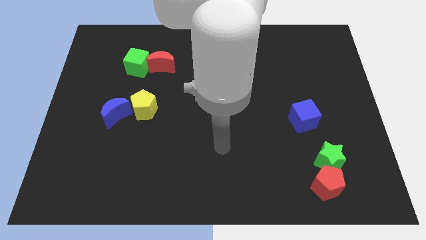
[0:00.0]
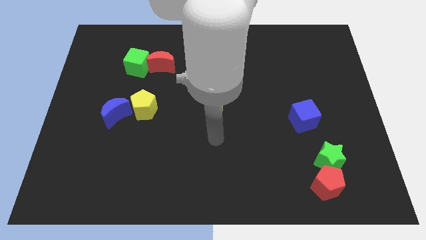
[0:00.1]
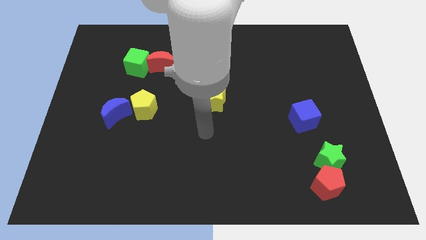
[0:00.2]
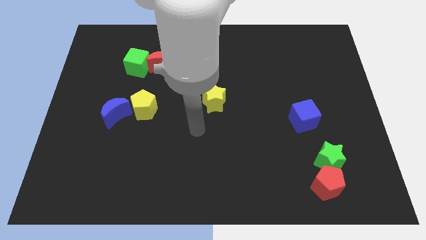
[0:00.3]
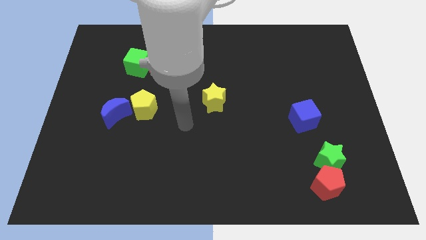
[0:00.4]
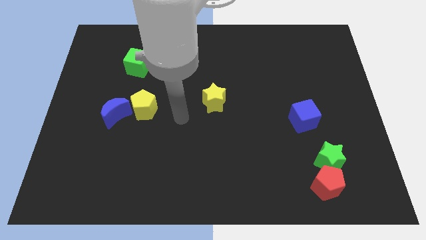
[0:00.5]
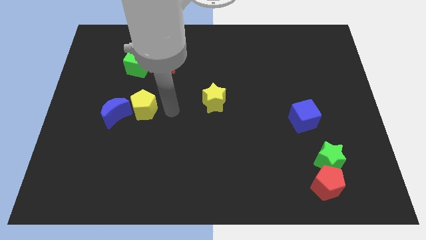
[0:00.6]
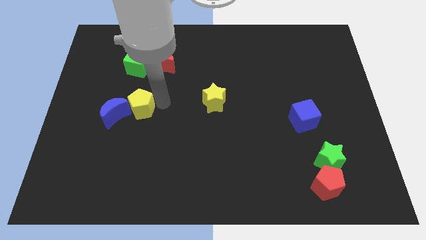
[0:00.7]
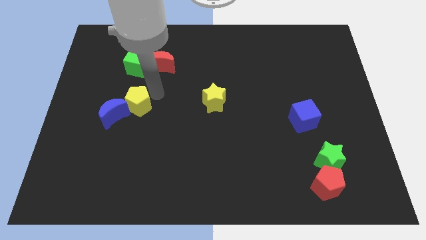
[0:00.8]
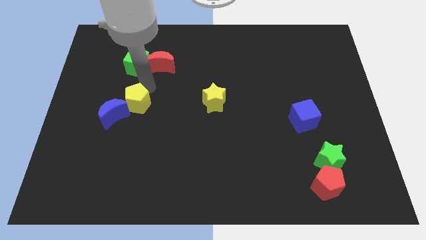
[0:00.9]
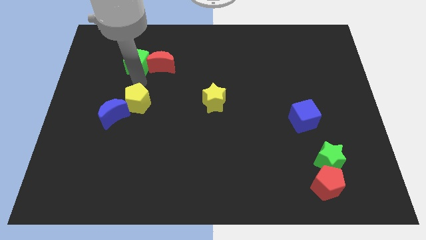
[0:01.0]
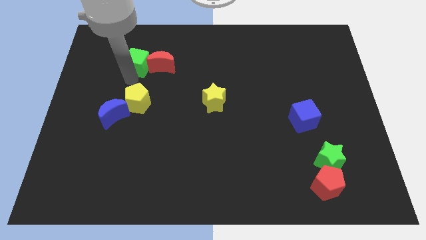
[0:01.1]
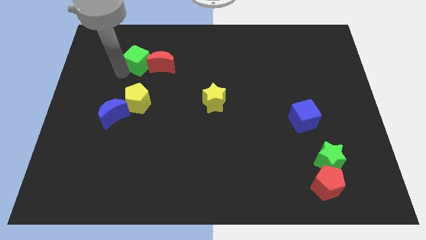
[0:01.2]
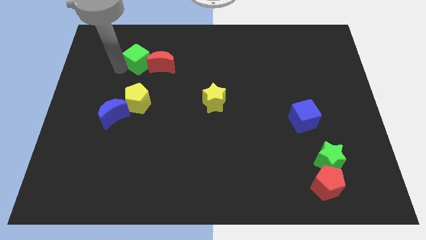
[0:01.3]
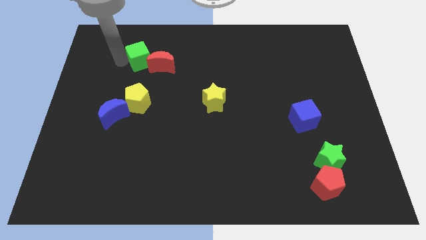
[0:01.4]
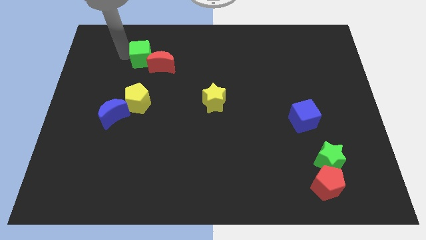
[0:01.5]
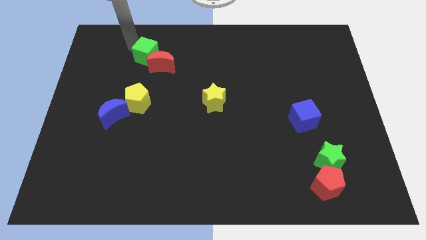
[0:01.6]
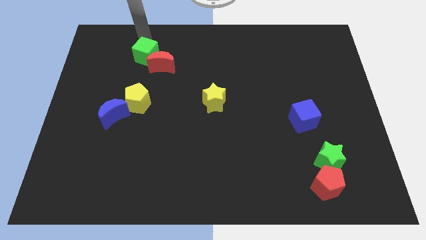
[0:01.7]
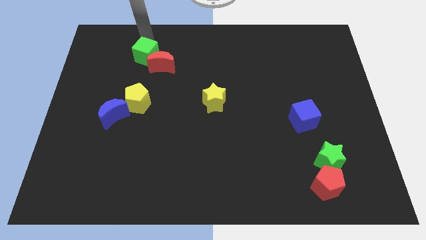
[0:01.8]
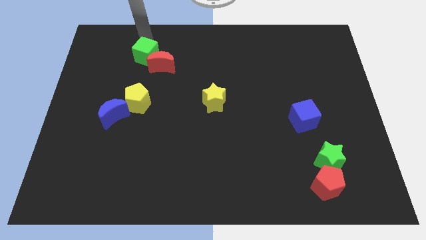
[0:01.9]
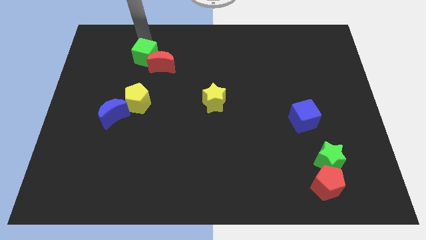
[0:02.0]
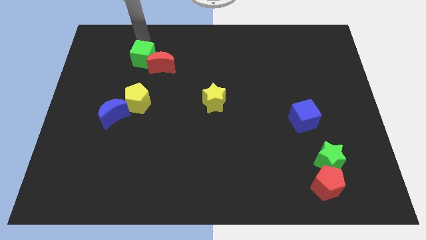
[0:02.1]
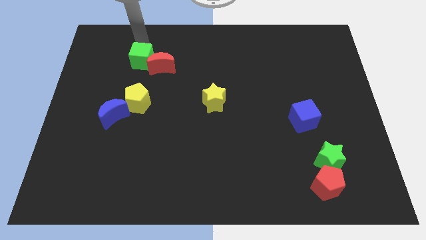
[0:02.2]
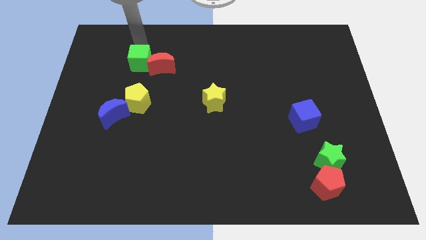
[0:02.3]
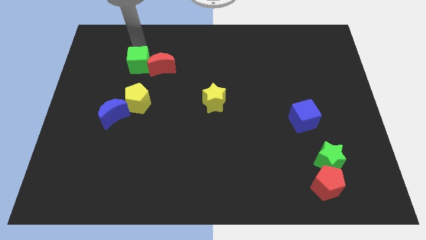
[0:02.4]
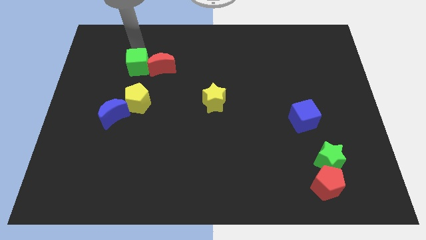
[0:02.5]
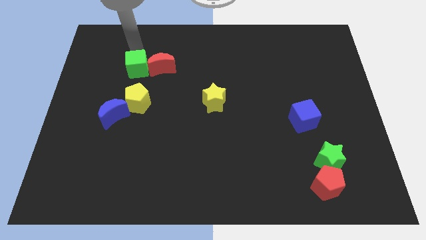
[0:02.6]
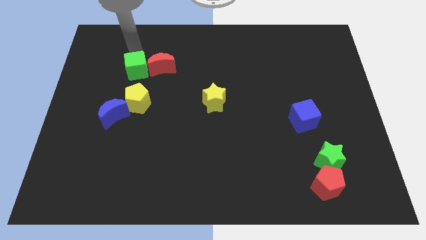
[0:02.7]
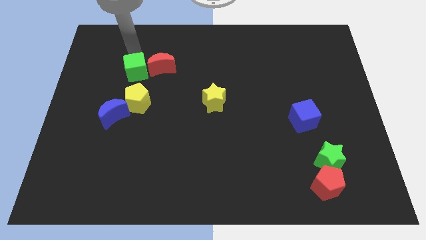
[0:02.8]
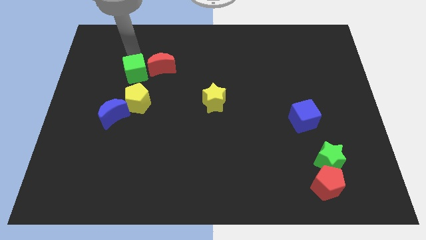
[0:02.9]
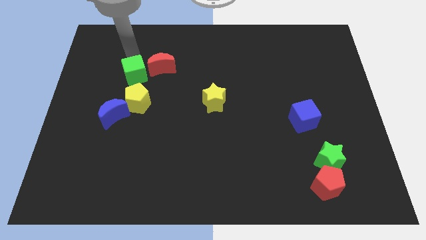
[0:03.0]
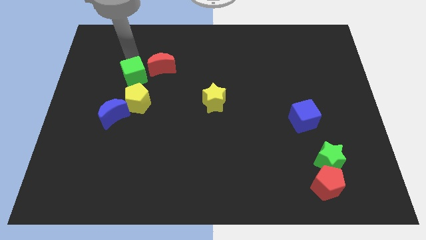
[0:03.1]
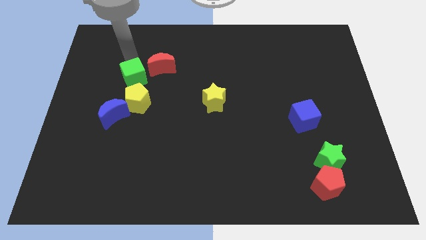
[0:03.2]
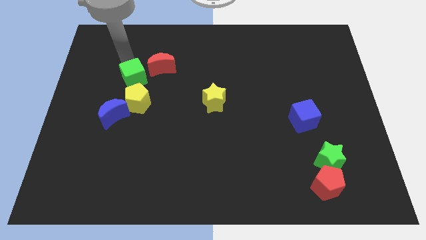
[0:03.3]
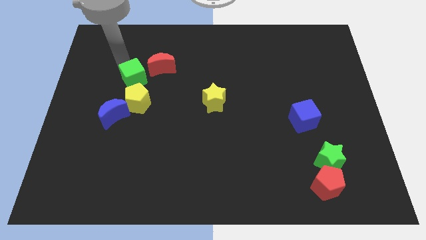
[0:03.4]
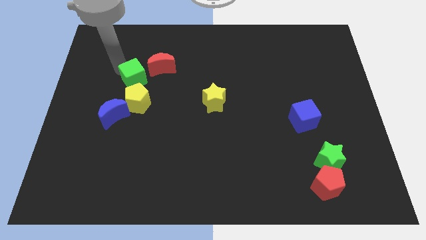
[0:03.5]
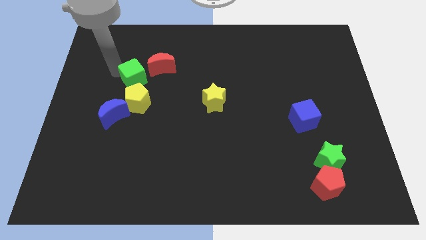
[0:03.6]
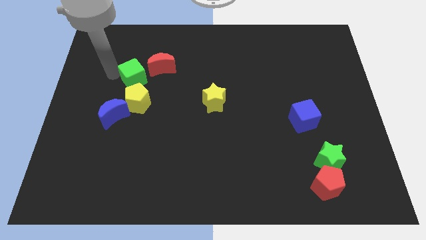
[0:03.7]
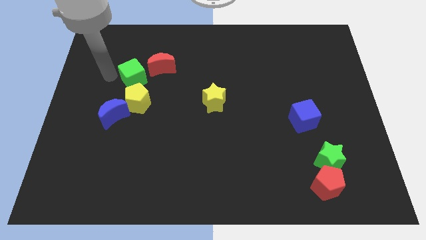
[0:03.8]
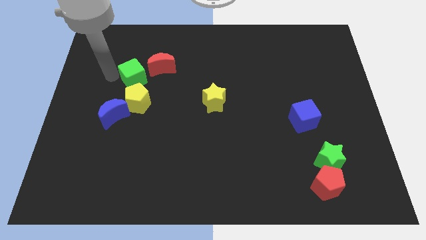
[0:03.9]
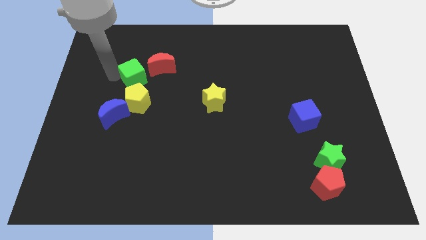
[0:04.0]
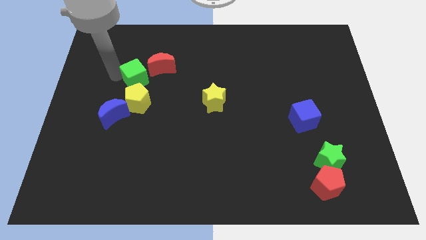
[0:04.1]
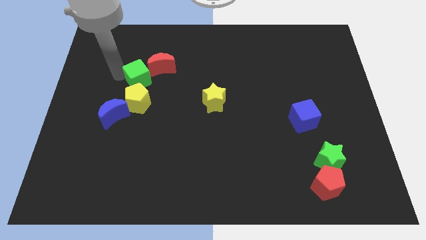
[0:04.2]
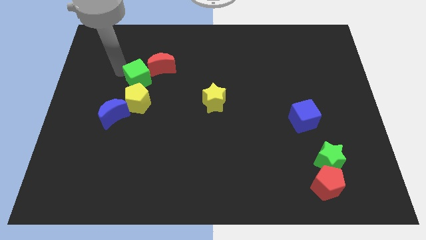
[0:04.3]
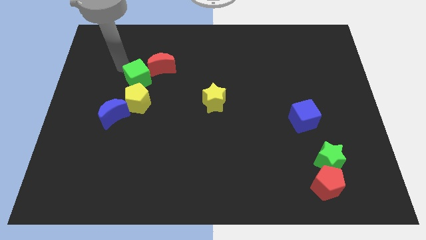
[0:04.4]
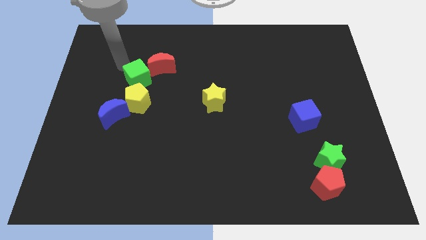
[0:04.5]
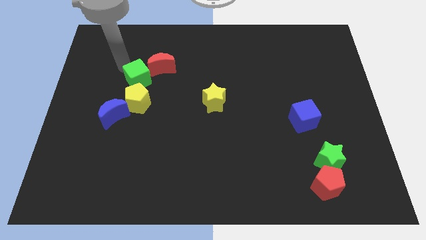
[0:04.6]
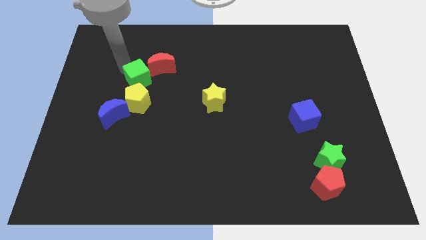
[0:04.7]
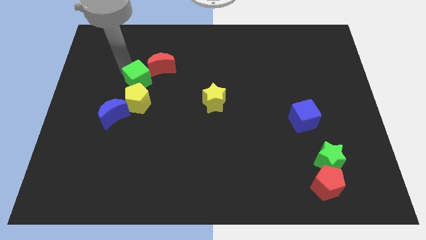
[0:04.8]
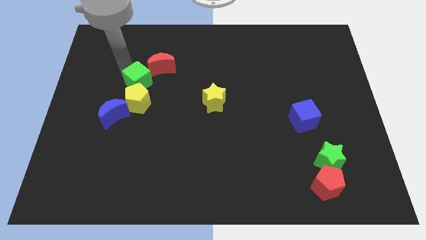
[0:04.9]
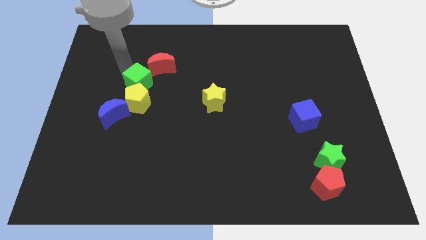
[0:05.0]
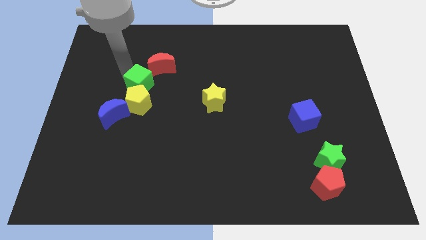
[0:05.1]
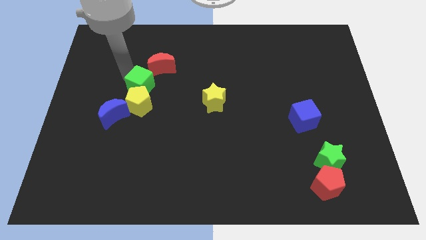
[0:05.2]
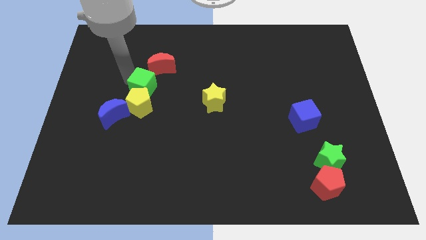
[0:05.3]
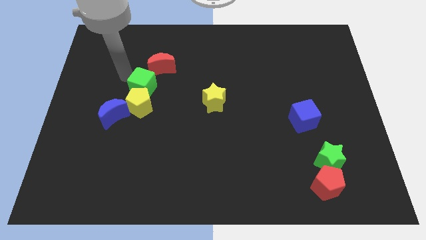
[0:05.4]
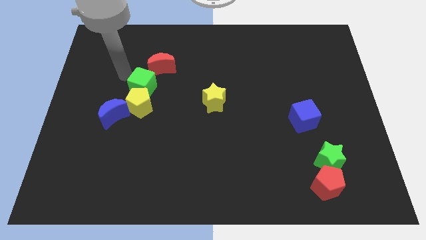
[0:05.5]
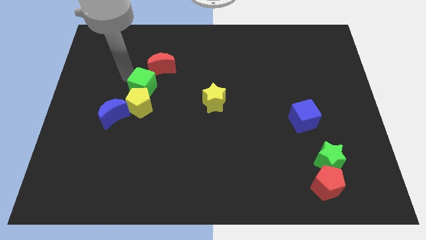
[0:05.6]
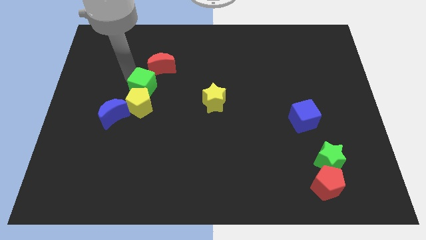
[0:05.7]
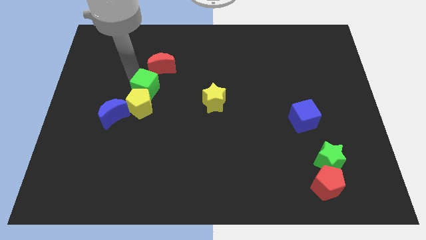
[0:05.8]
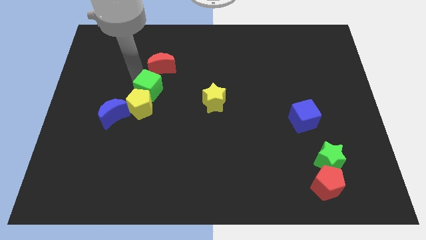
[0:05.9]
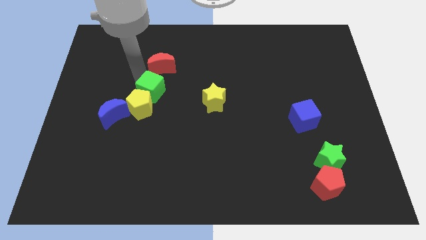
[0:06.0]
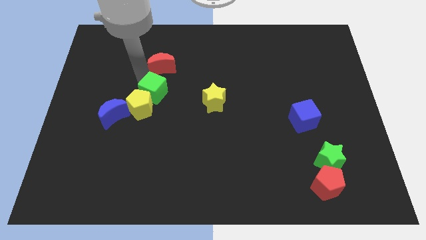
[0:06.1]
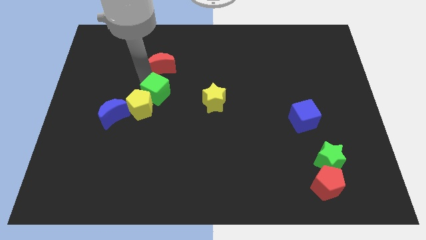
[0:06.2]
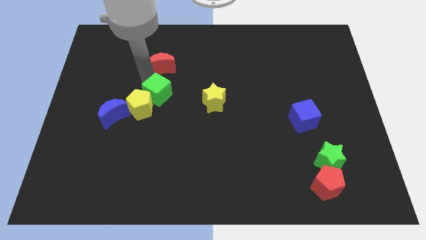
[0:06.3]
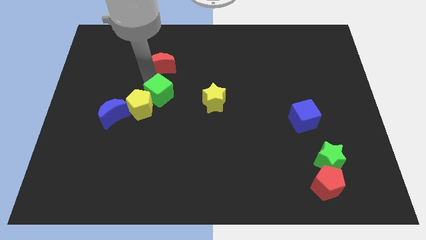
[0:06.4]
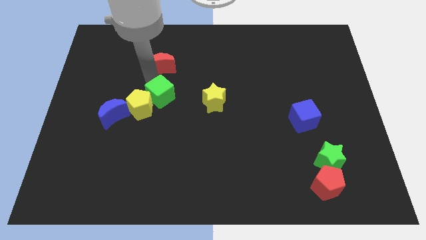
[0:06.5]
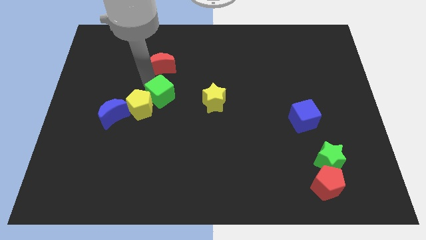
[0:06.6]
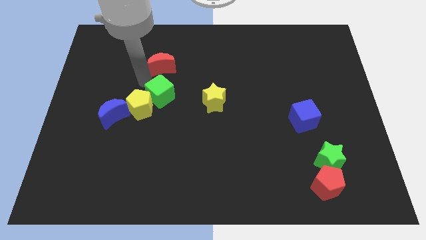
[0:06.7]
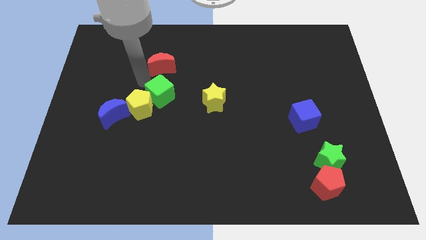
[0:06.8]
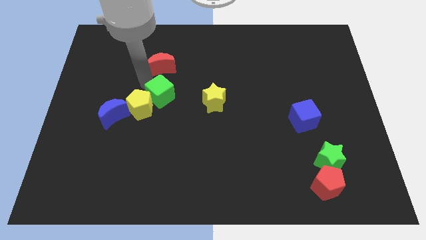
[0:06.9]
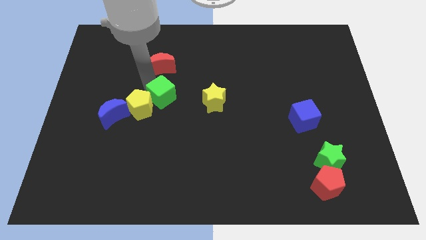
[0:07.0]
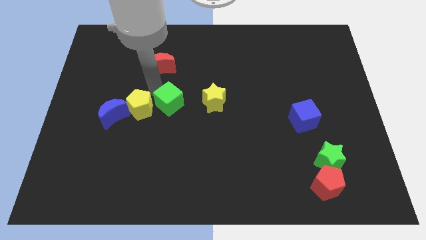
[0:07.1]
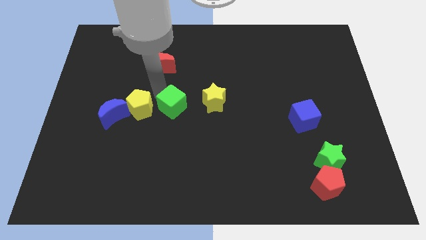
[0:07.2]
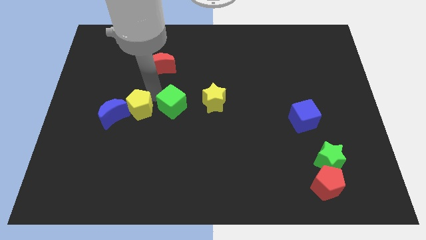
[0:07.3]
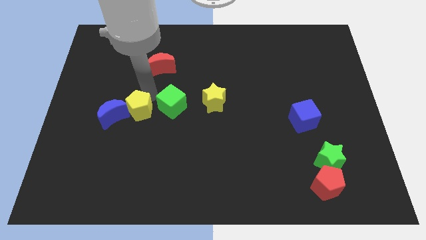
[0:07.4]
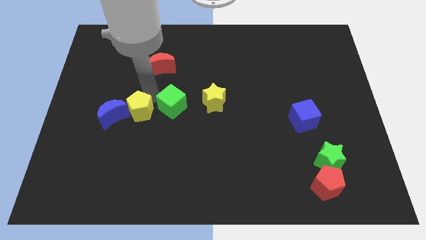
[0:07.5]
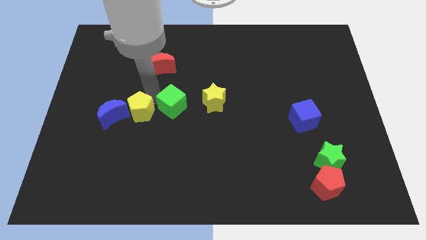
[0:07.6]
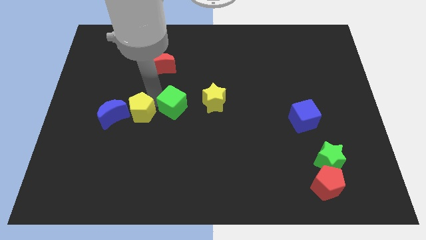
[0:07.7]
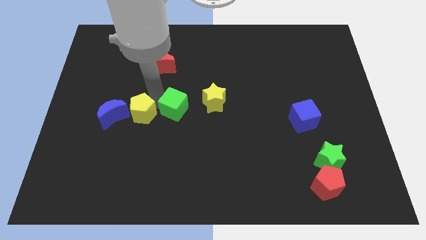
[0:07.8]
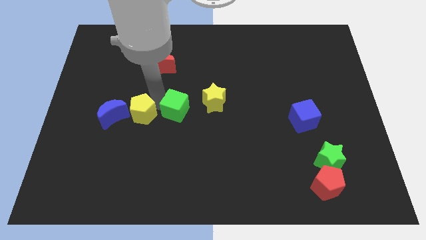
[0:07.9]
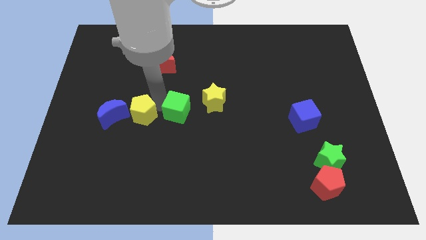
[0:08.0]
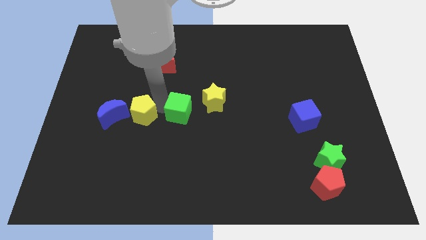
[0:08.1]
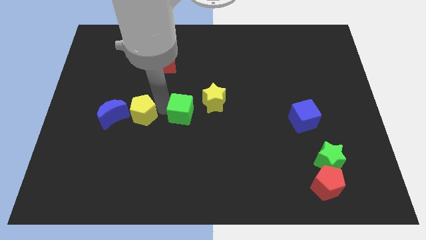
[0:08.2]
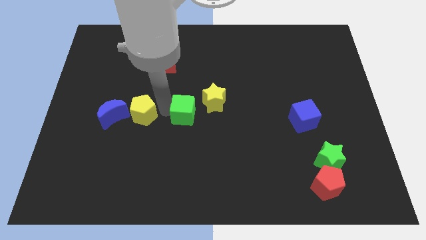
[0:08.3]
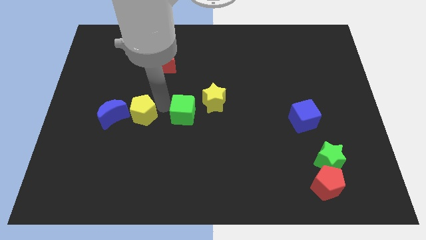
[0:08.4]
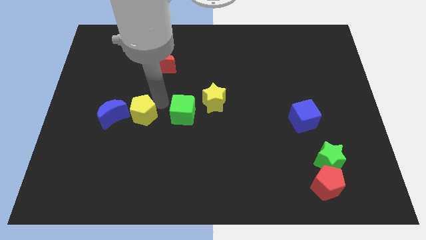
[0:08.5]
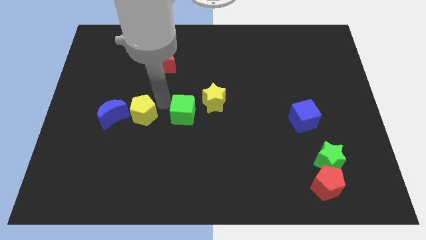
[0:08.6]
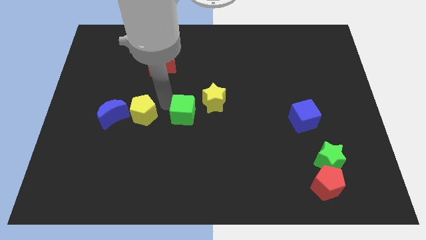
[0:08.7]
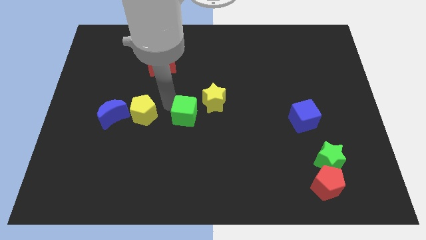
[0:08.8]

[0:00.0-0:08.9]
push the green cube downwards and right diagonally
